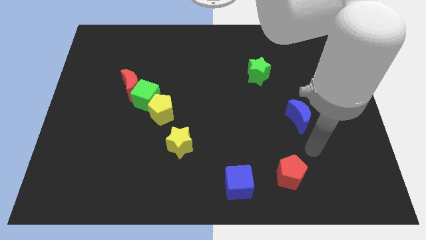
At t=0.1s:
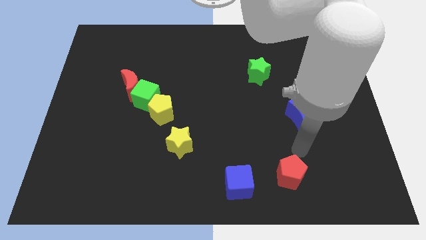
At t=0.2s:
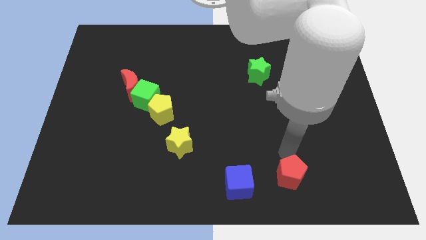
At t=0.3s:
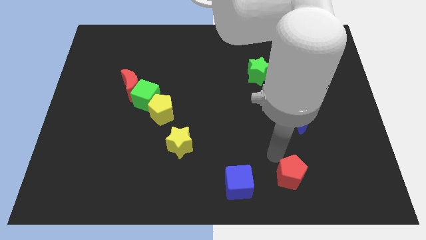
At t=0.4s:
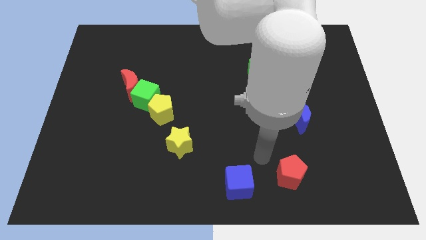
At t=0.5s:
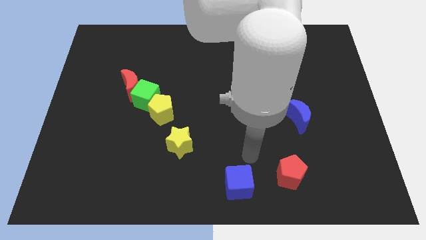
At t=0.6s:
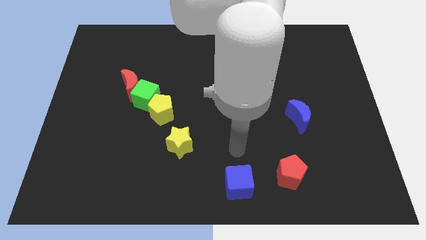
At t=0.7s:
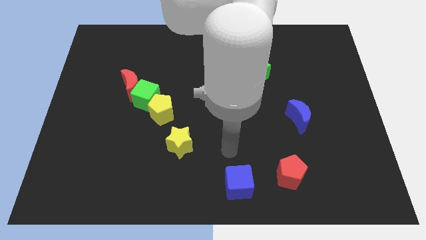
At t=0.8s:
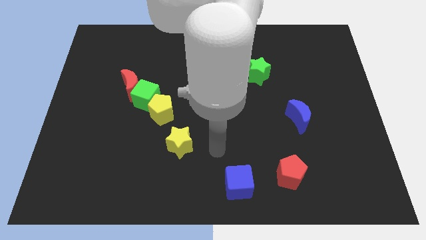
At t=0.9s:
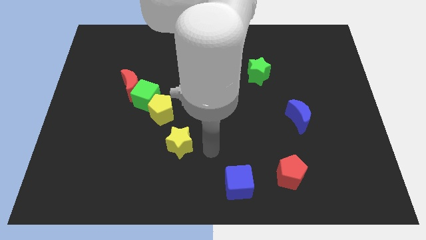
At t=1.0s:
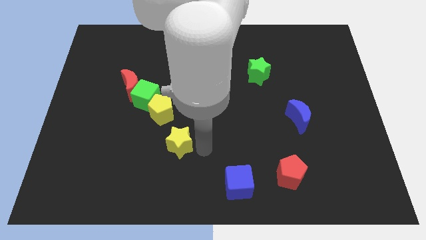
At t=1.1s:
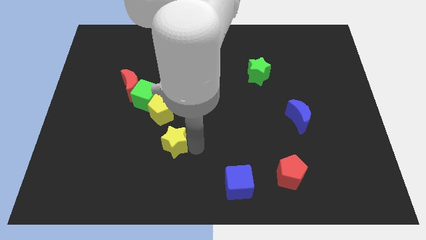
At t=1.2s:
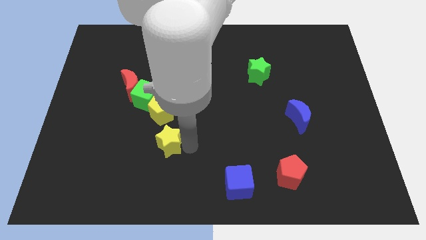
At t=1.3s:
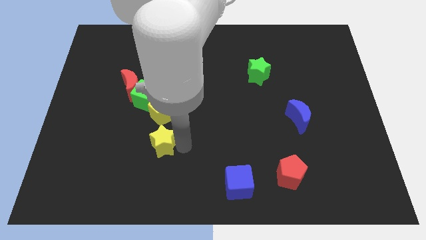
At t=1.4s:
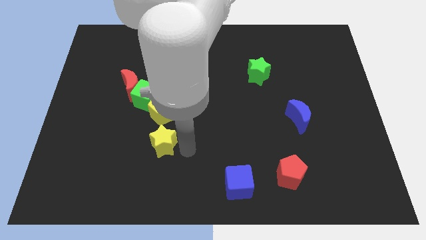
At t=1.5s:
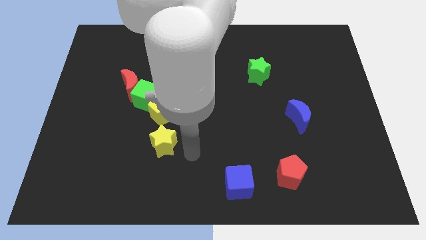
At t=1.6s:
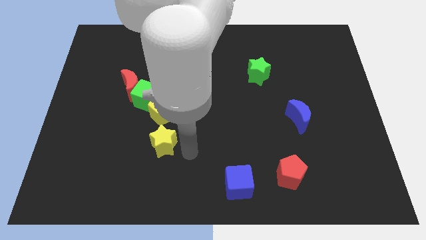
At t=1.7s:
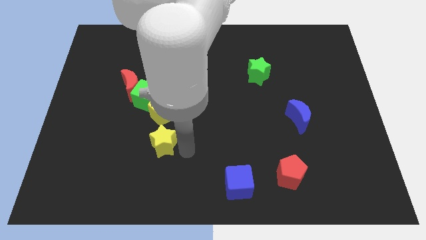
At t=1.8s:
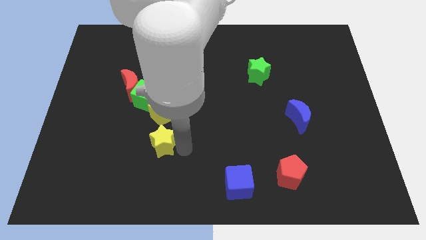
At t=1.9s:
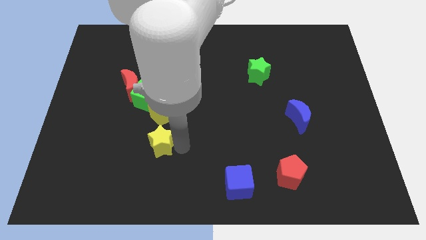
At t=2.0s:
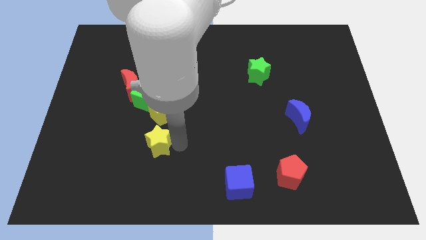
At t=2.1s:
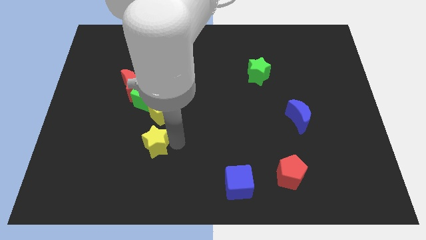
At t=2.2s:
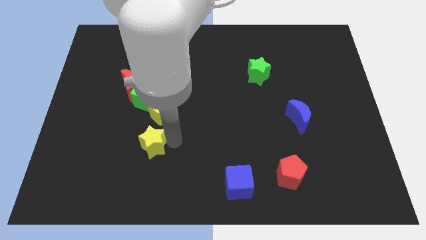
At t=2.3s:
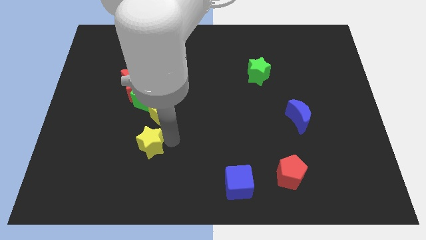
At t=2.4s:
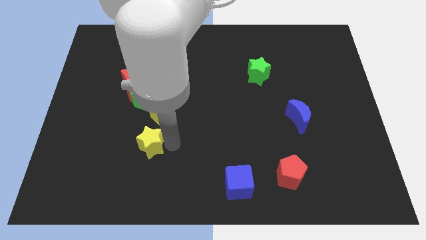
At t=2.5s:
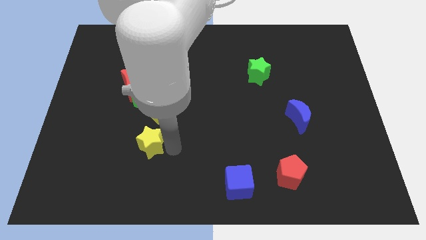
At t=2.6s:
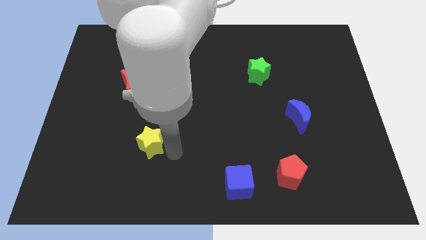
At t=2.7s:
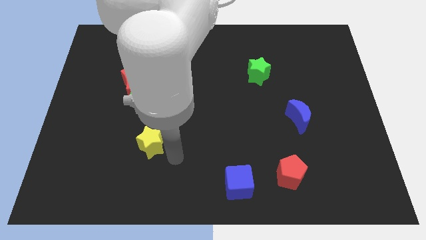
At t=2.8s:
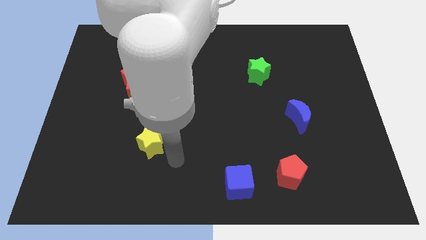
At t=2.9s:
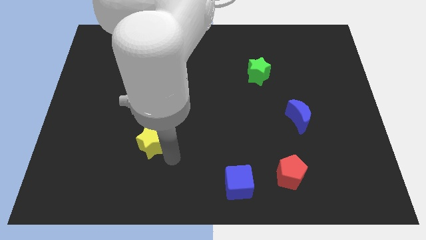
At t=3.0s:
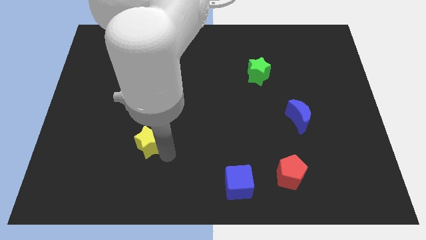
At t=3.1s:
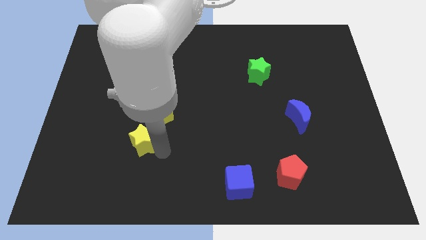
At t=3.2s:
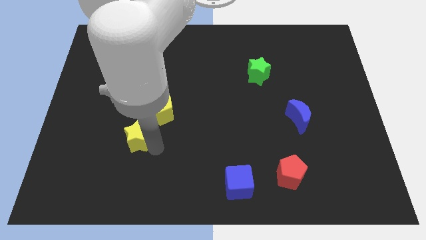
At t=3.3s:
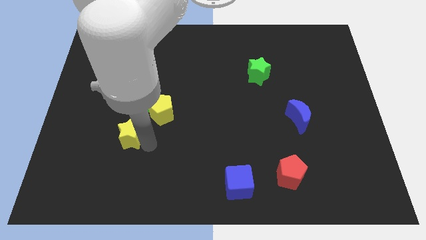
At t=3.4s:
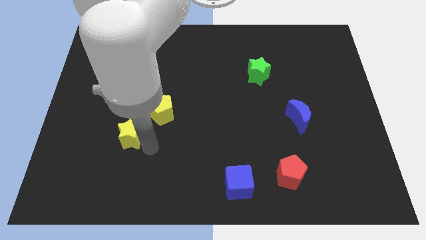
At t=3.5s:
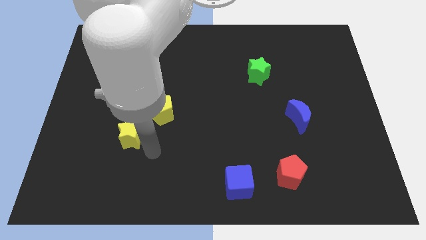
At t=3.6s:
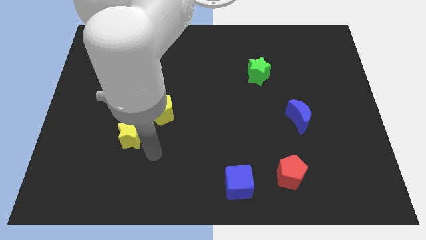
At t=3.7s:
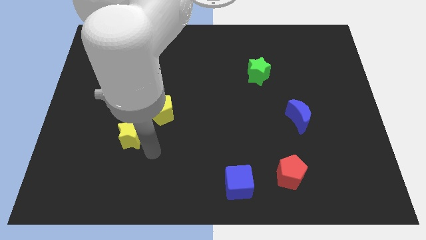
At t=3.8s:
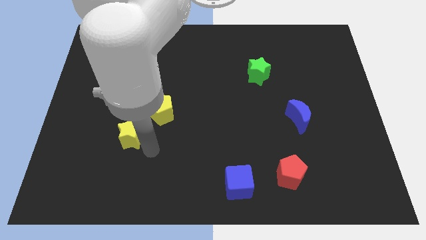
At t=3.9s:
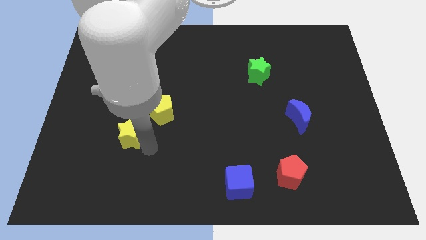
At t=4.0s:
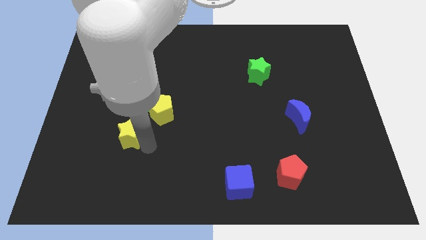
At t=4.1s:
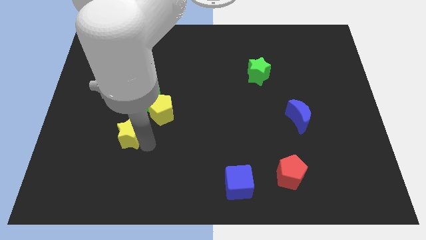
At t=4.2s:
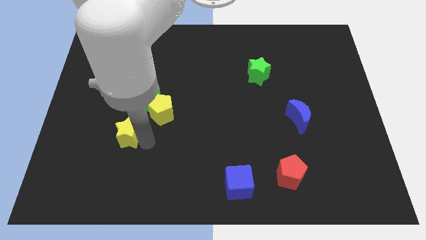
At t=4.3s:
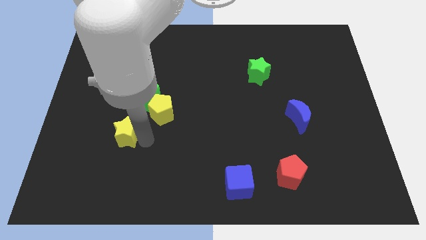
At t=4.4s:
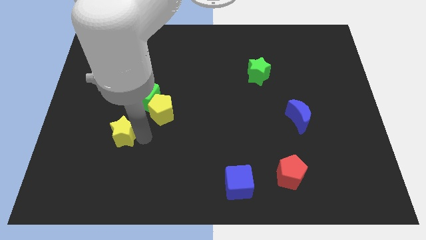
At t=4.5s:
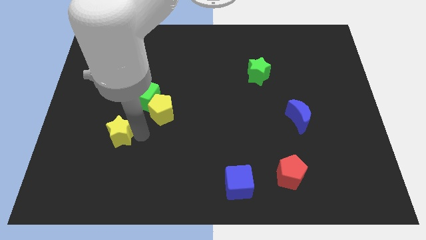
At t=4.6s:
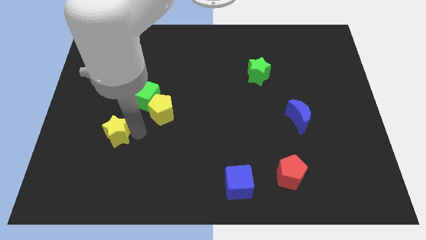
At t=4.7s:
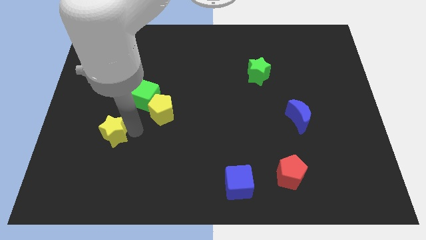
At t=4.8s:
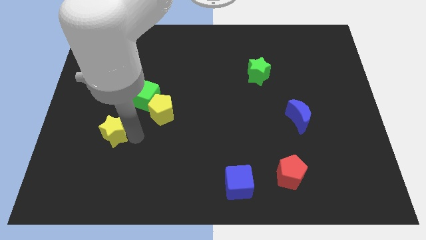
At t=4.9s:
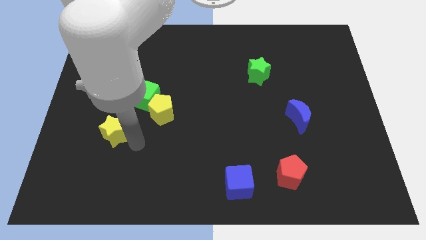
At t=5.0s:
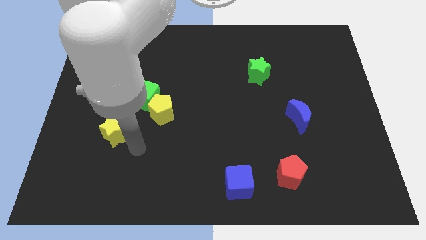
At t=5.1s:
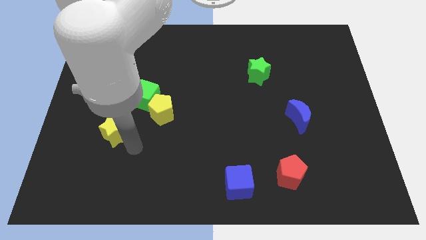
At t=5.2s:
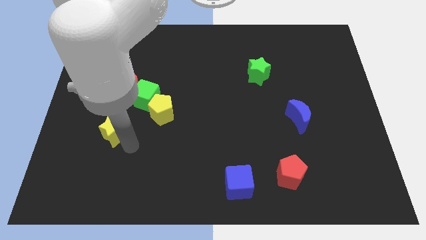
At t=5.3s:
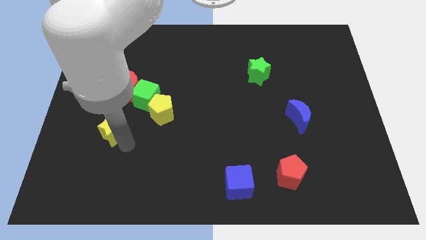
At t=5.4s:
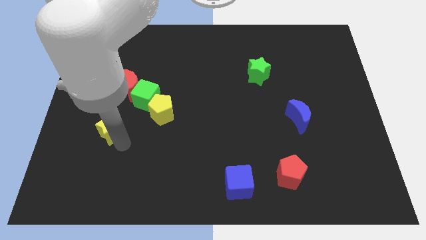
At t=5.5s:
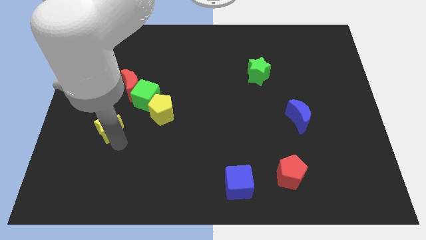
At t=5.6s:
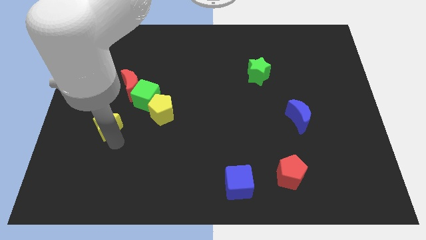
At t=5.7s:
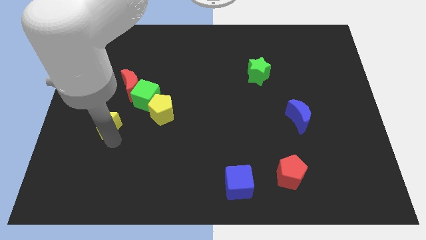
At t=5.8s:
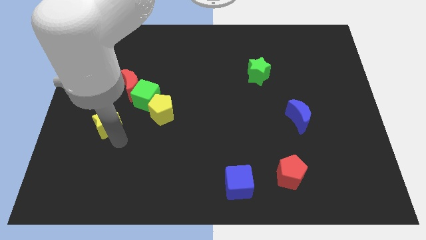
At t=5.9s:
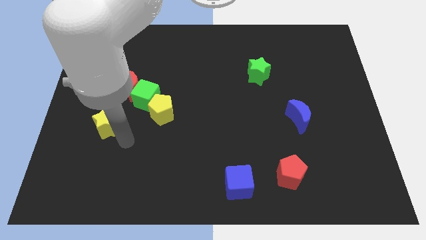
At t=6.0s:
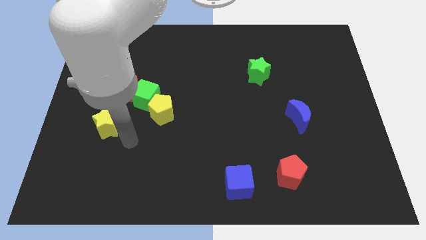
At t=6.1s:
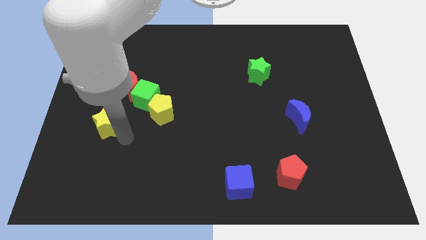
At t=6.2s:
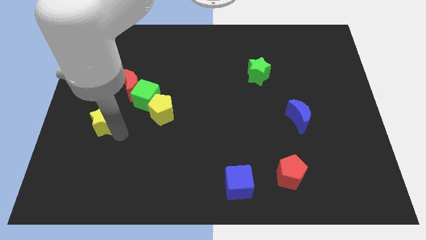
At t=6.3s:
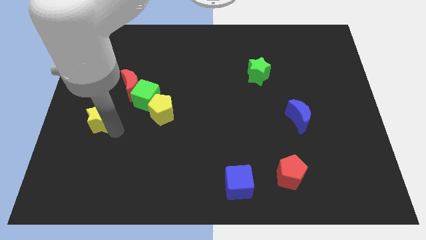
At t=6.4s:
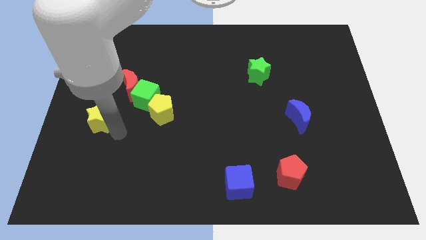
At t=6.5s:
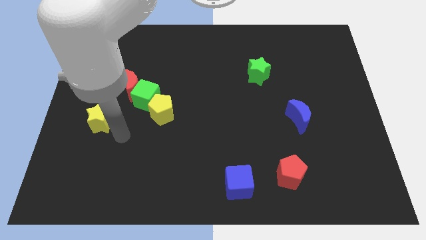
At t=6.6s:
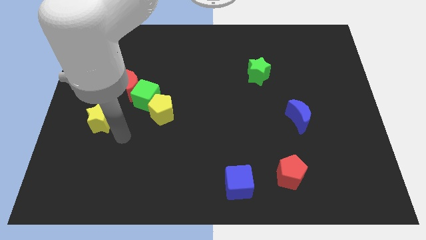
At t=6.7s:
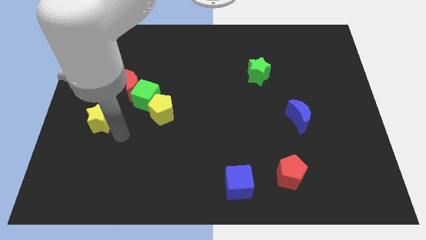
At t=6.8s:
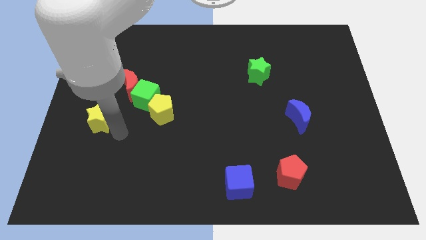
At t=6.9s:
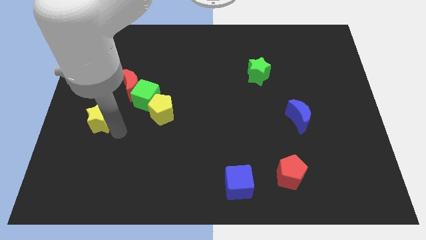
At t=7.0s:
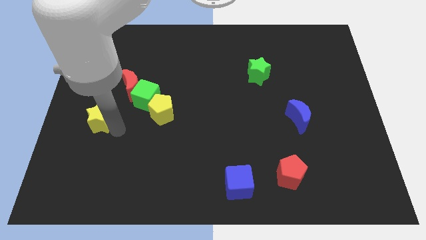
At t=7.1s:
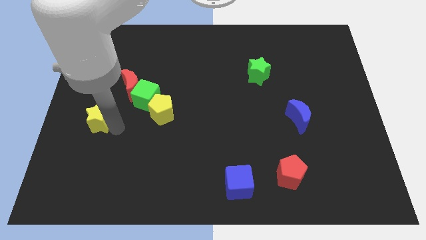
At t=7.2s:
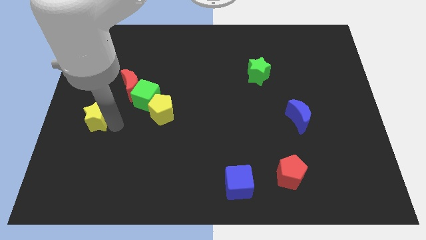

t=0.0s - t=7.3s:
put the yellow star to the left side
